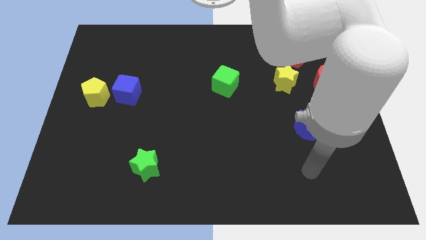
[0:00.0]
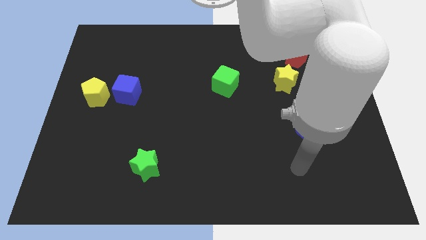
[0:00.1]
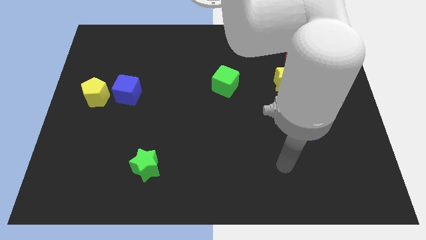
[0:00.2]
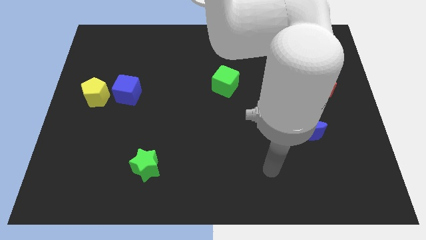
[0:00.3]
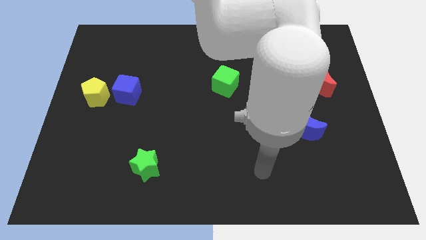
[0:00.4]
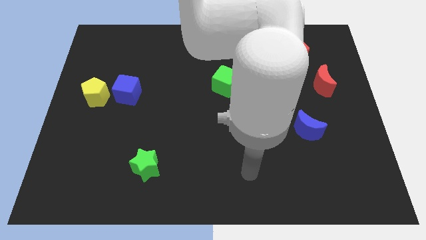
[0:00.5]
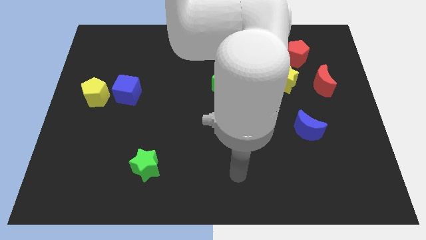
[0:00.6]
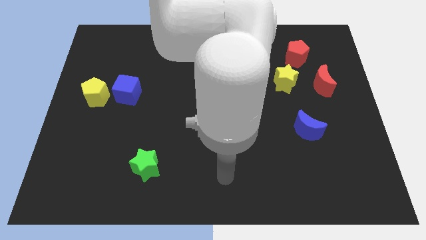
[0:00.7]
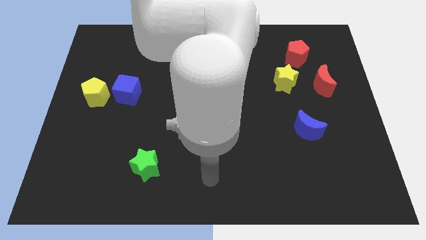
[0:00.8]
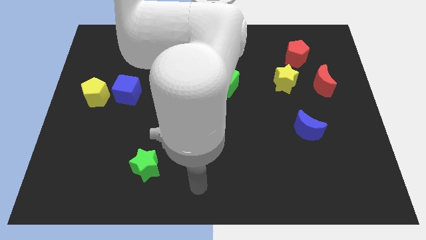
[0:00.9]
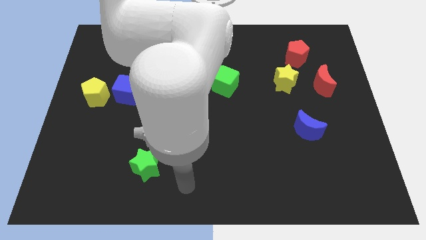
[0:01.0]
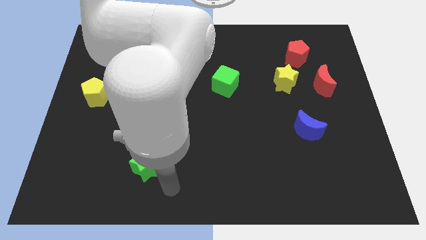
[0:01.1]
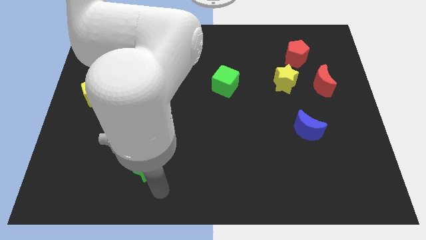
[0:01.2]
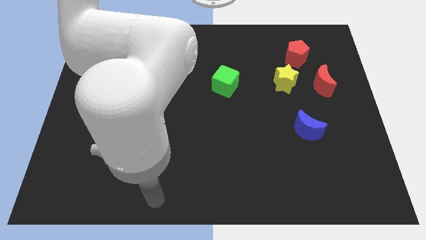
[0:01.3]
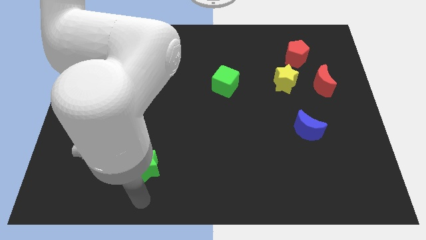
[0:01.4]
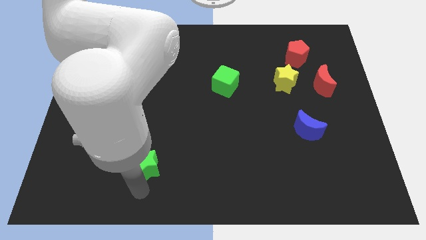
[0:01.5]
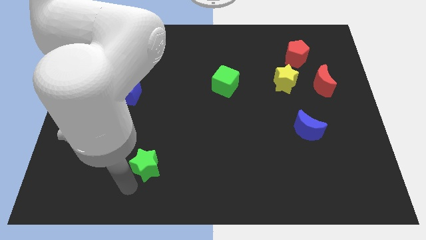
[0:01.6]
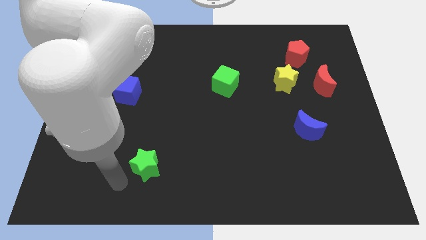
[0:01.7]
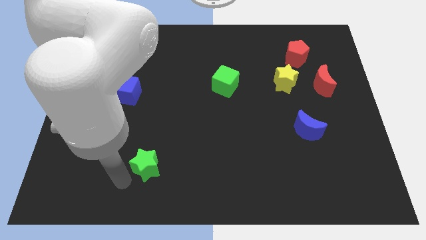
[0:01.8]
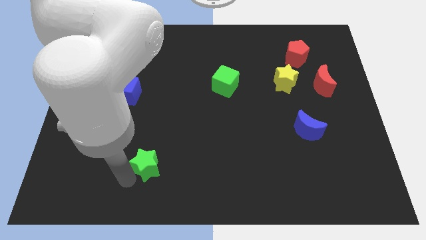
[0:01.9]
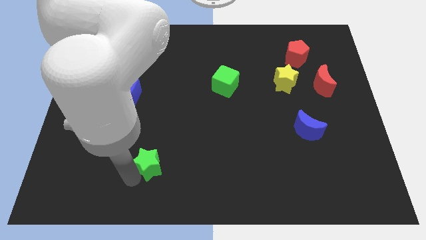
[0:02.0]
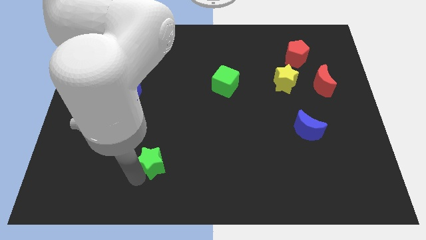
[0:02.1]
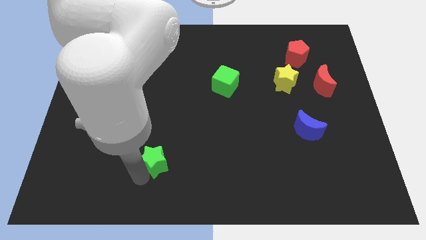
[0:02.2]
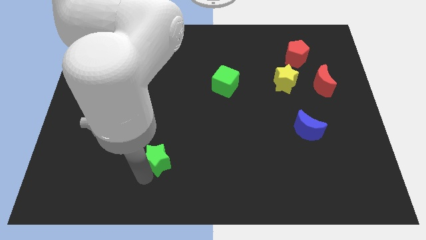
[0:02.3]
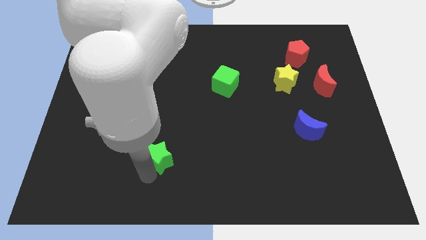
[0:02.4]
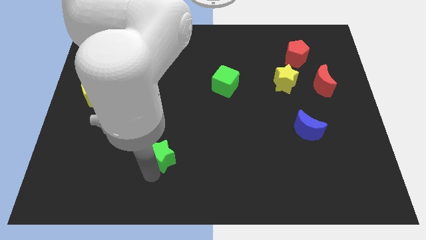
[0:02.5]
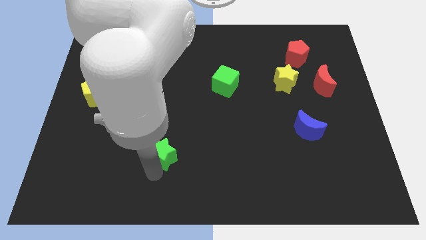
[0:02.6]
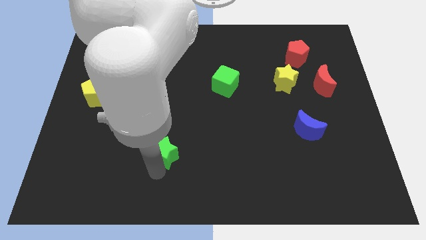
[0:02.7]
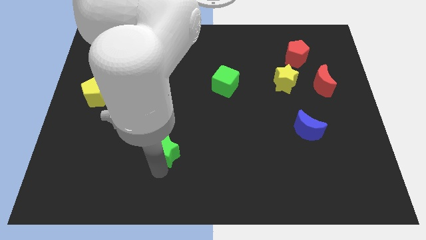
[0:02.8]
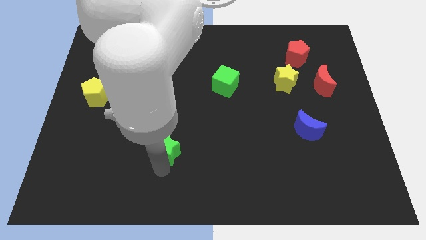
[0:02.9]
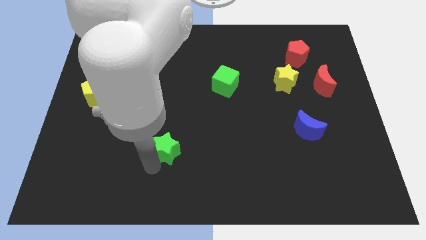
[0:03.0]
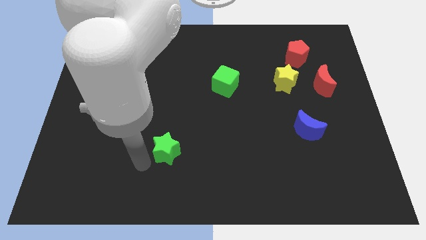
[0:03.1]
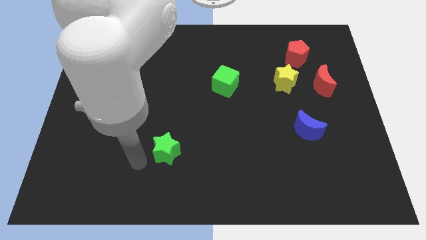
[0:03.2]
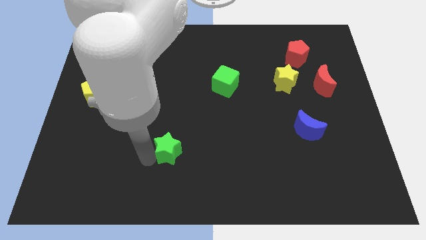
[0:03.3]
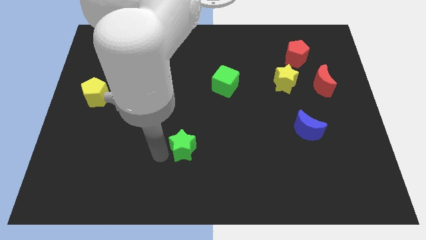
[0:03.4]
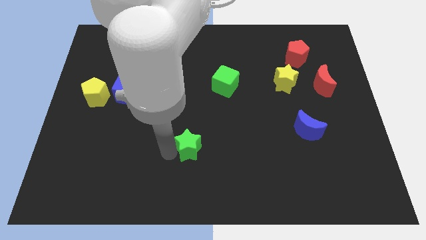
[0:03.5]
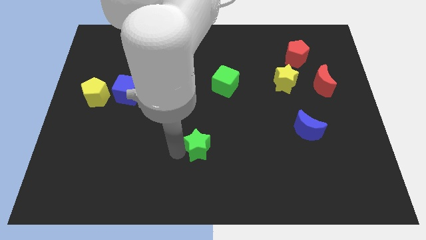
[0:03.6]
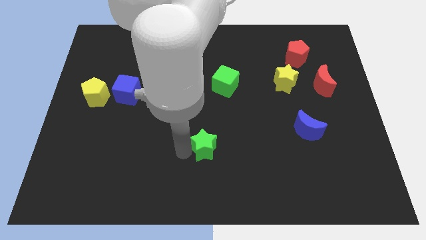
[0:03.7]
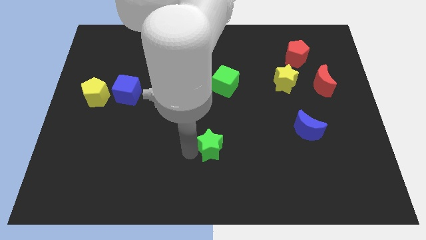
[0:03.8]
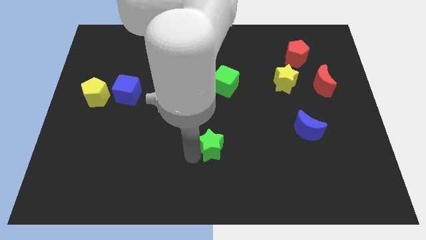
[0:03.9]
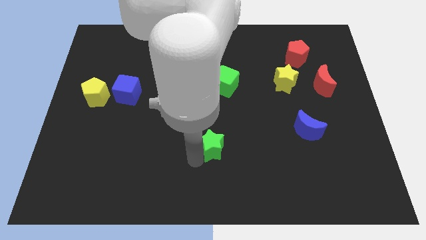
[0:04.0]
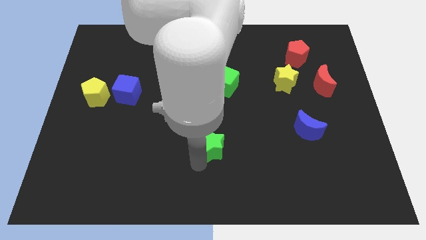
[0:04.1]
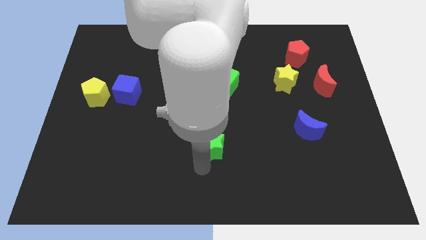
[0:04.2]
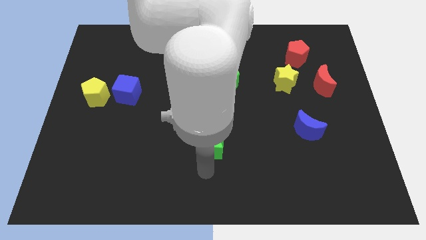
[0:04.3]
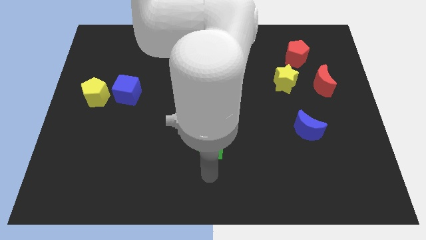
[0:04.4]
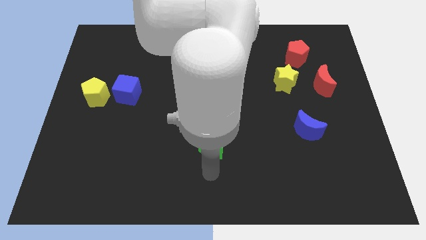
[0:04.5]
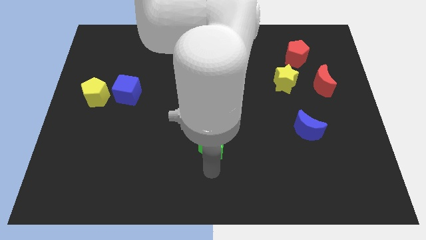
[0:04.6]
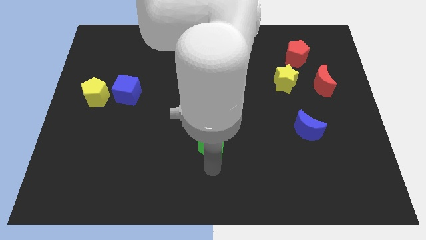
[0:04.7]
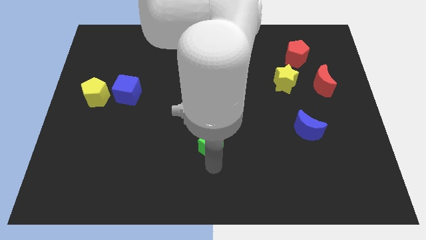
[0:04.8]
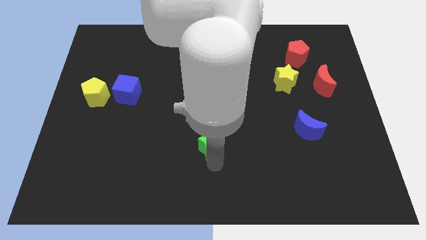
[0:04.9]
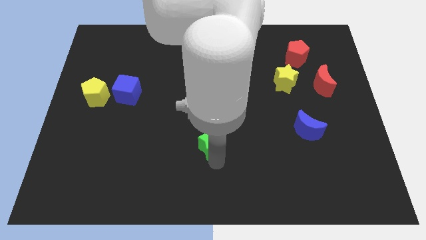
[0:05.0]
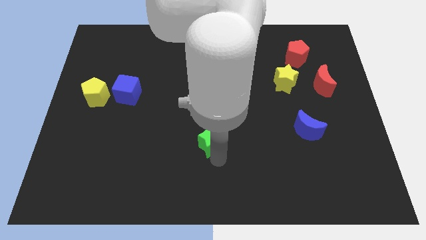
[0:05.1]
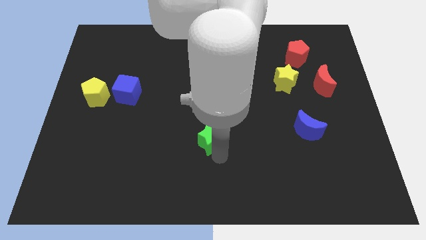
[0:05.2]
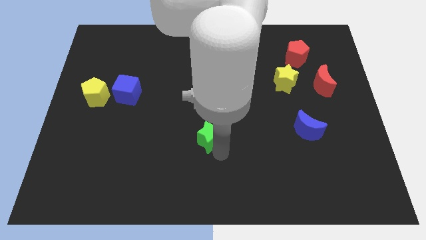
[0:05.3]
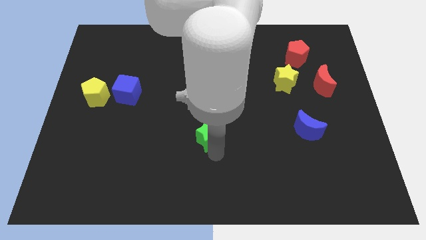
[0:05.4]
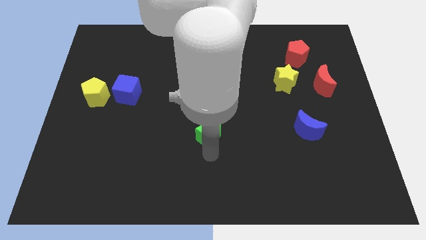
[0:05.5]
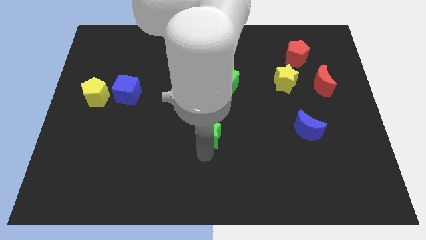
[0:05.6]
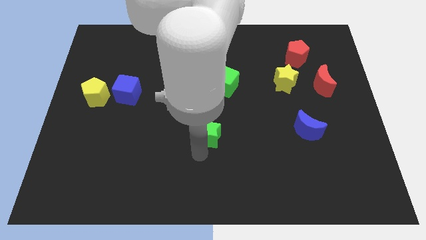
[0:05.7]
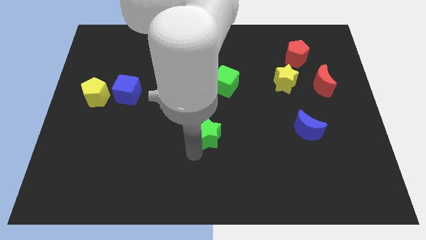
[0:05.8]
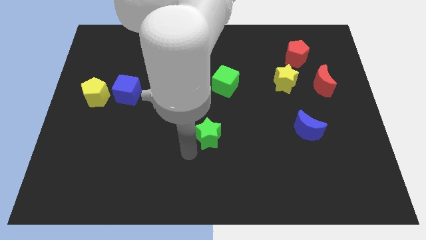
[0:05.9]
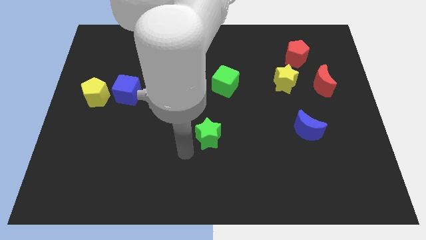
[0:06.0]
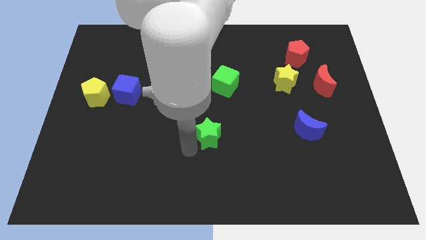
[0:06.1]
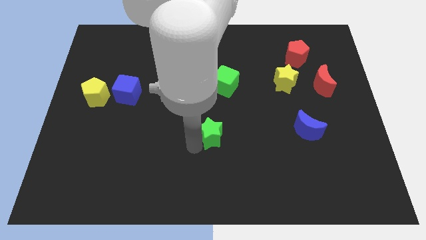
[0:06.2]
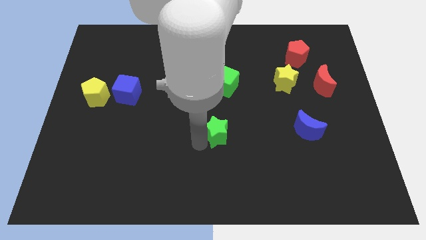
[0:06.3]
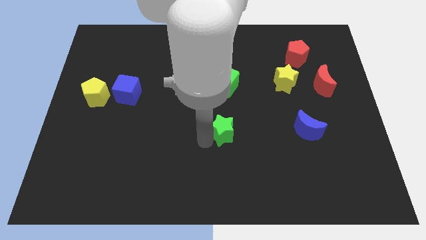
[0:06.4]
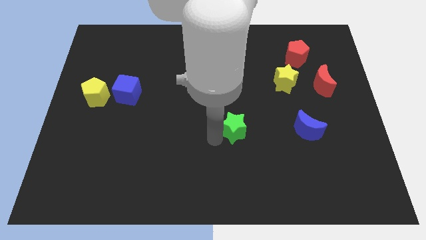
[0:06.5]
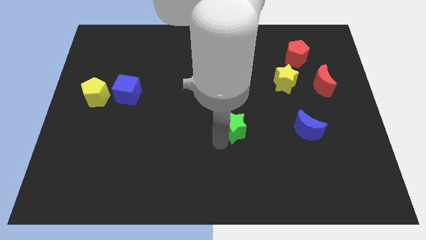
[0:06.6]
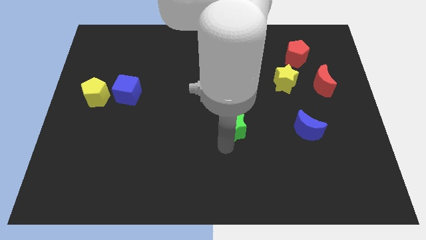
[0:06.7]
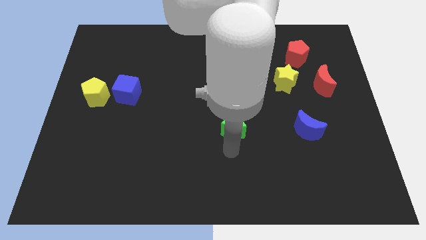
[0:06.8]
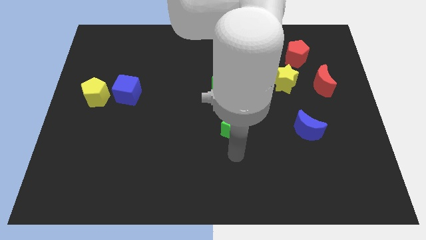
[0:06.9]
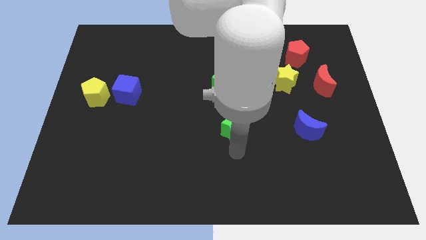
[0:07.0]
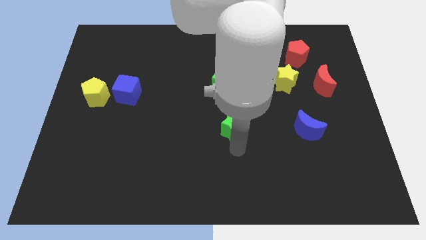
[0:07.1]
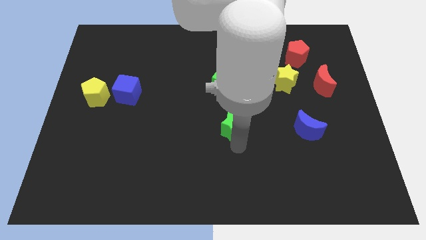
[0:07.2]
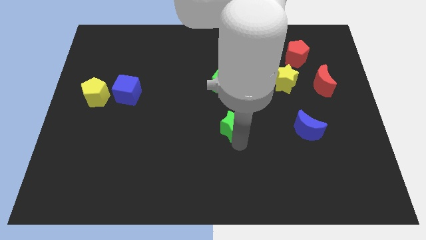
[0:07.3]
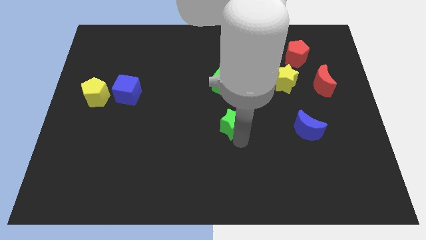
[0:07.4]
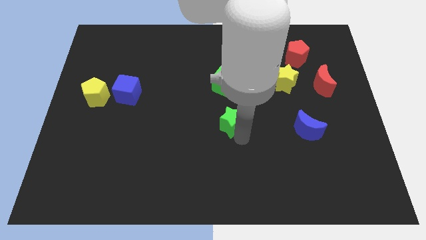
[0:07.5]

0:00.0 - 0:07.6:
slide the green star up and right

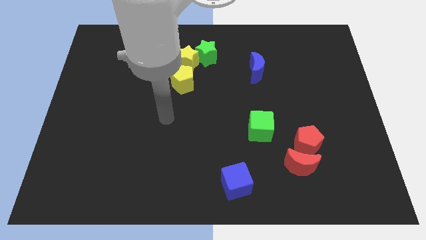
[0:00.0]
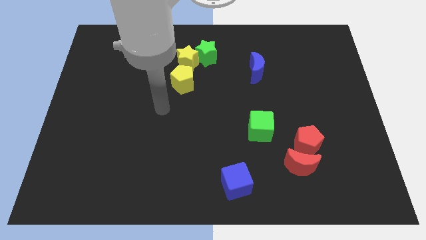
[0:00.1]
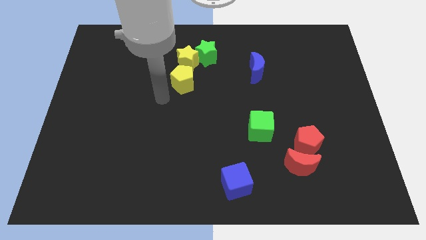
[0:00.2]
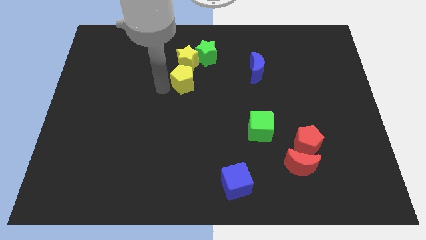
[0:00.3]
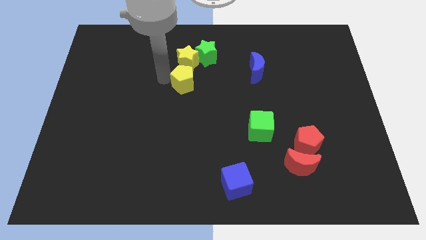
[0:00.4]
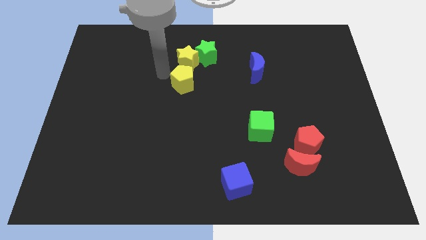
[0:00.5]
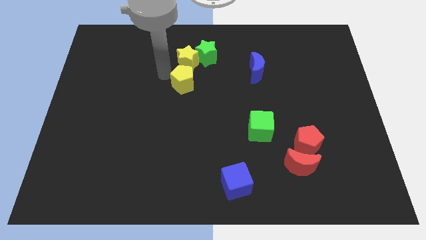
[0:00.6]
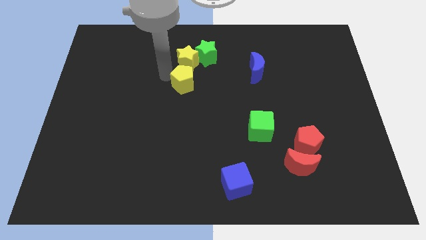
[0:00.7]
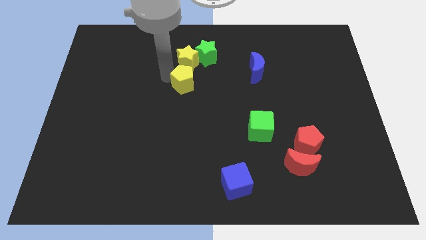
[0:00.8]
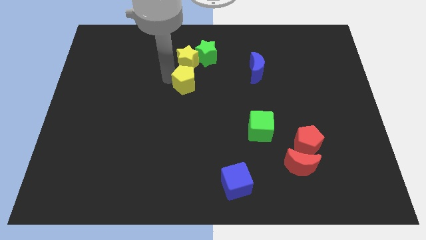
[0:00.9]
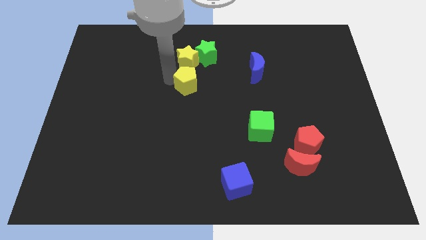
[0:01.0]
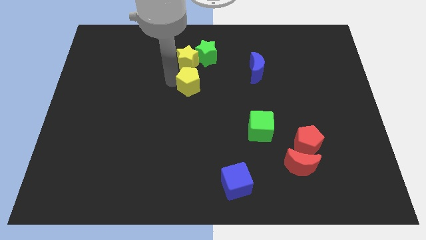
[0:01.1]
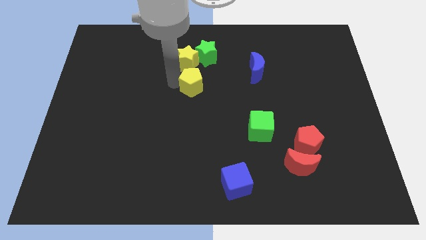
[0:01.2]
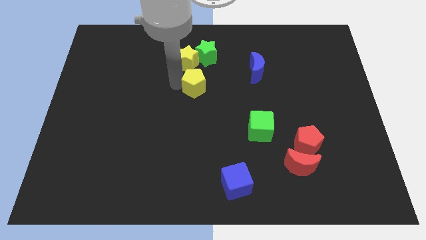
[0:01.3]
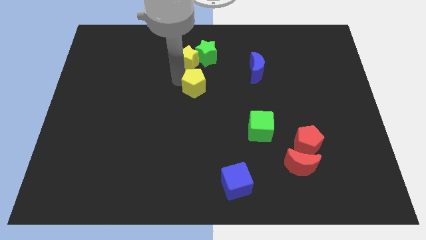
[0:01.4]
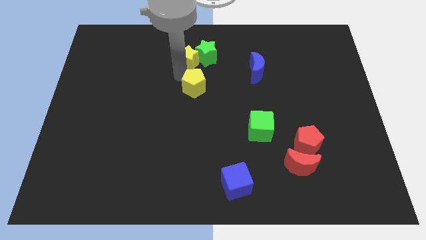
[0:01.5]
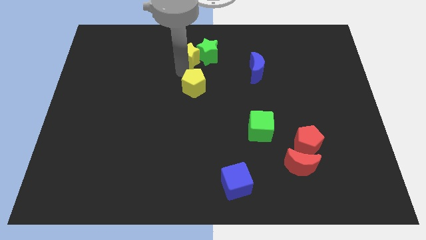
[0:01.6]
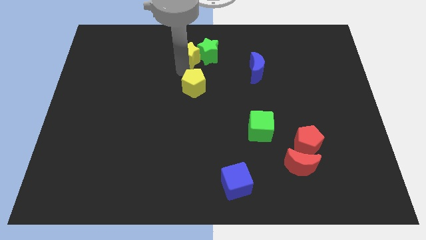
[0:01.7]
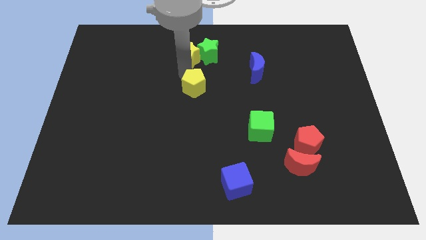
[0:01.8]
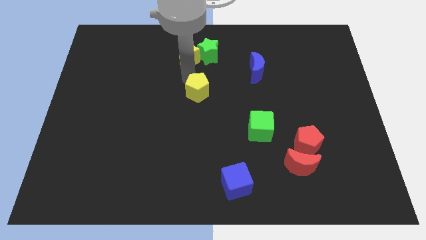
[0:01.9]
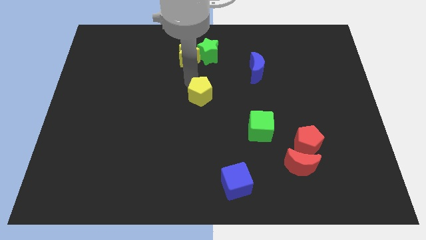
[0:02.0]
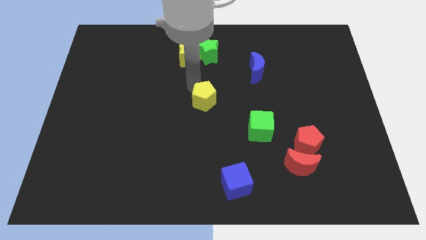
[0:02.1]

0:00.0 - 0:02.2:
slide the yellow pentagon downwards and then to the right a little bit
